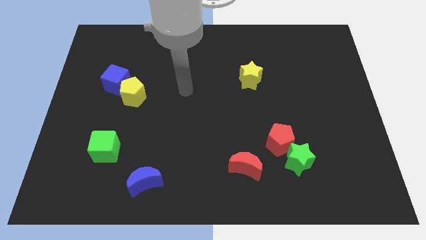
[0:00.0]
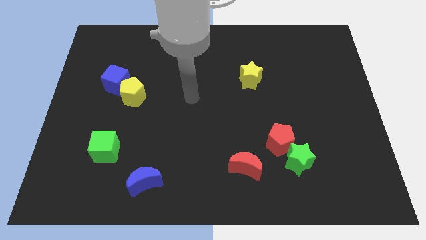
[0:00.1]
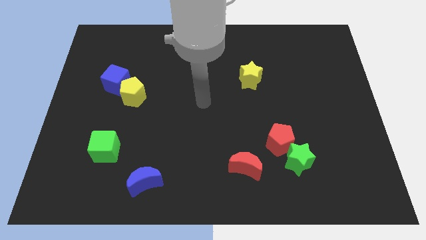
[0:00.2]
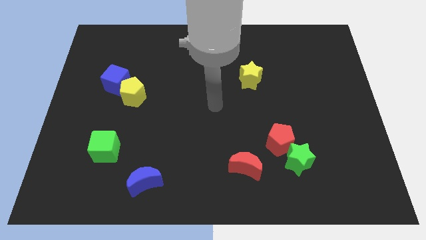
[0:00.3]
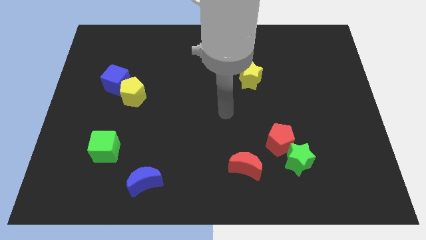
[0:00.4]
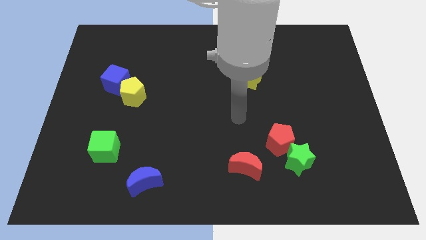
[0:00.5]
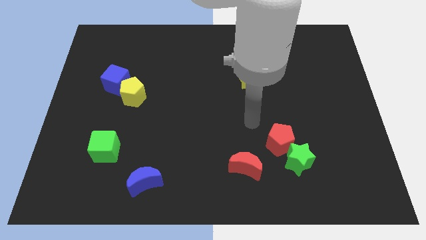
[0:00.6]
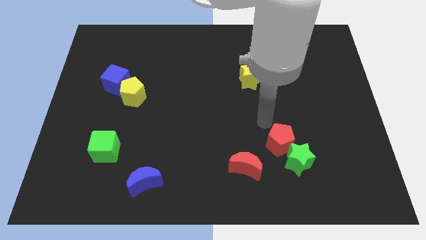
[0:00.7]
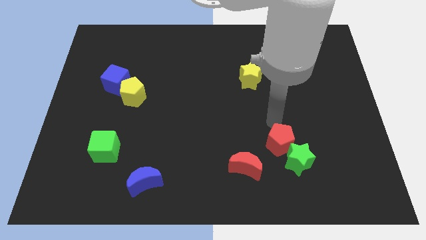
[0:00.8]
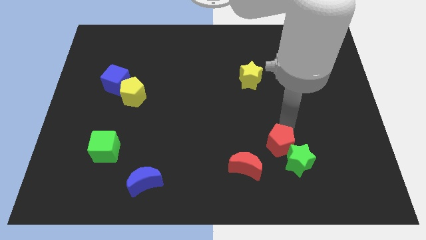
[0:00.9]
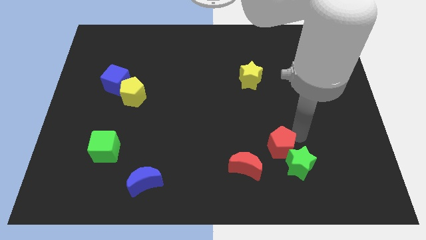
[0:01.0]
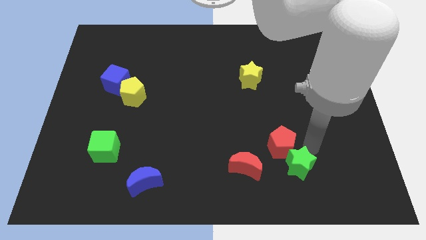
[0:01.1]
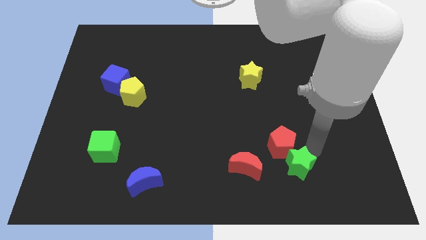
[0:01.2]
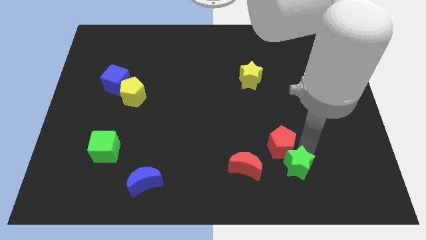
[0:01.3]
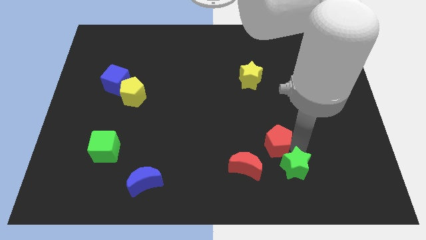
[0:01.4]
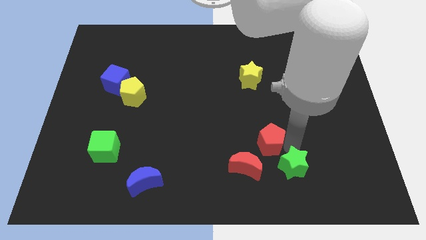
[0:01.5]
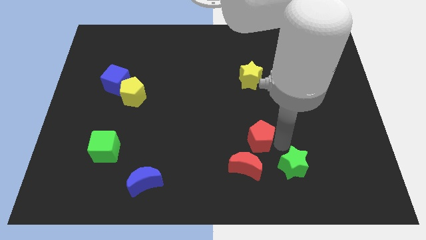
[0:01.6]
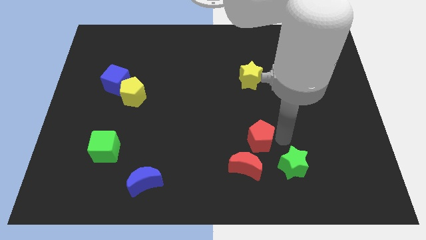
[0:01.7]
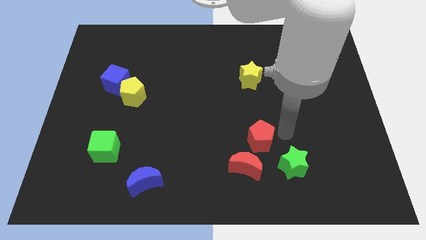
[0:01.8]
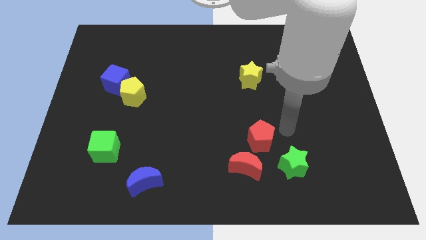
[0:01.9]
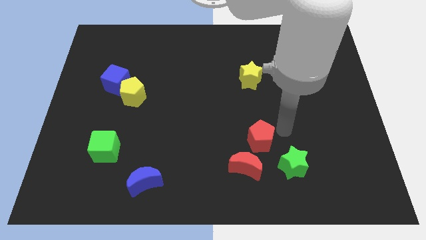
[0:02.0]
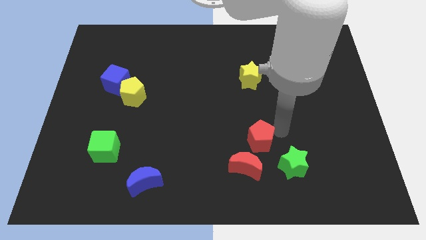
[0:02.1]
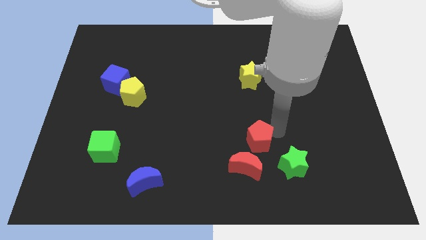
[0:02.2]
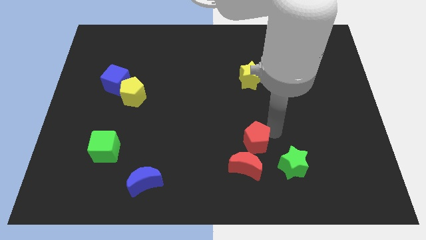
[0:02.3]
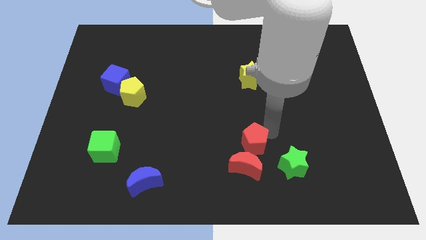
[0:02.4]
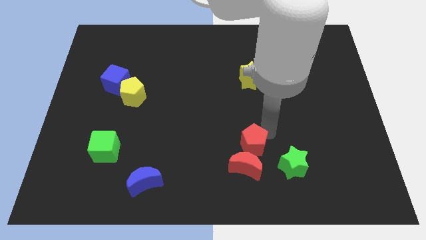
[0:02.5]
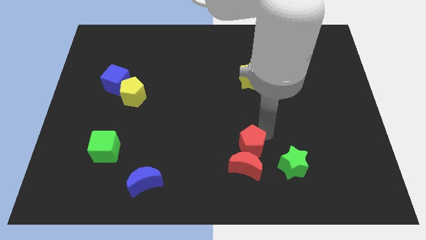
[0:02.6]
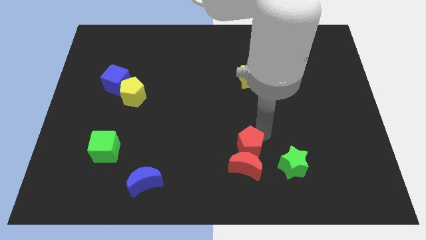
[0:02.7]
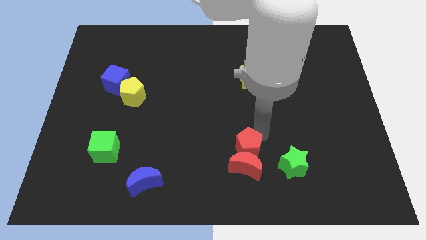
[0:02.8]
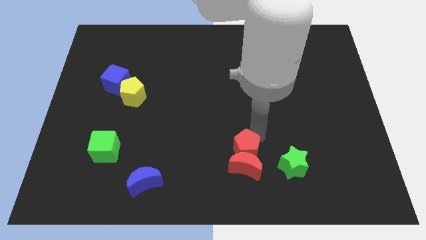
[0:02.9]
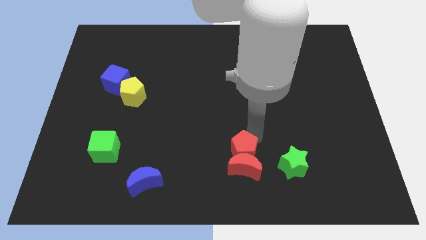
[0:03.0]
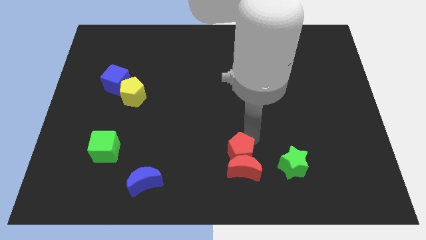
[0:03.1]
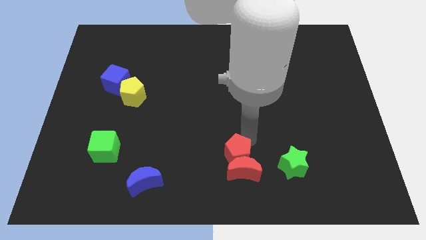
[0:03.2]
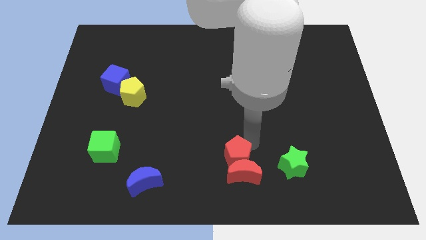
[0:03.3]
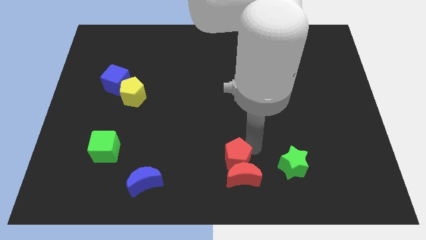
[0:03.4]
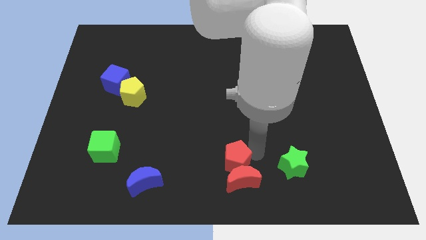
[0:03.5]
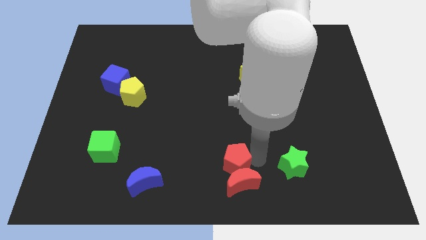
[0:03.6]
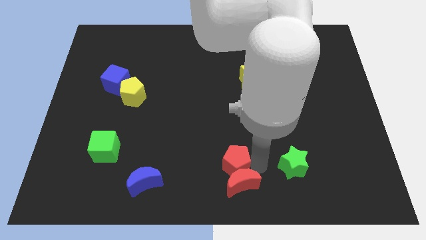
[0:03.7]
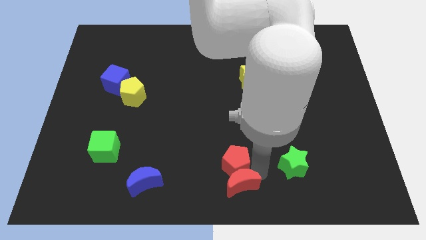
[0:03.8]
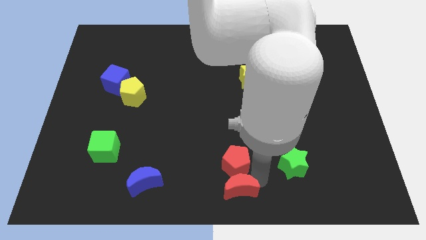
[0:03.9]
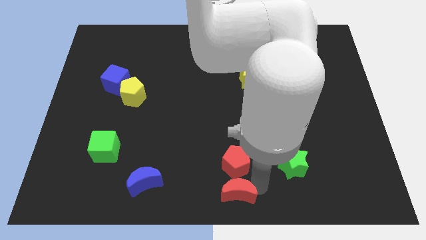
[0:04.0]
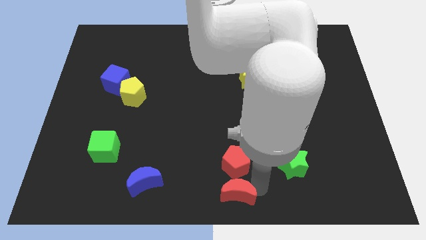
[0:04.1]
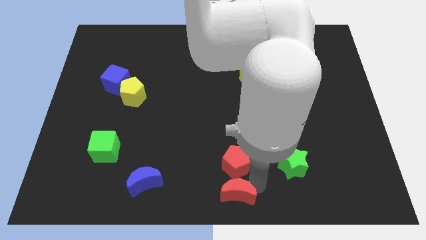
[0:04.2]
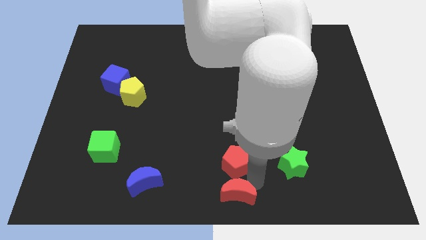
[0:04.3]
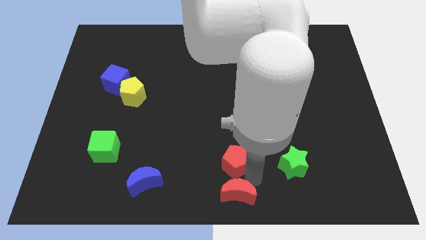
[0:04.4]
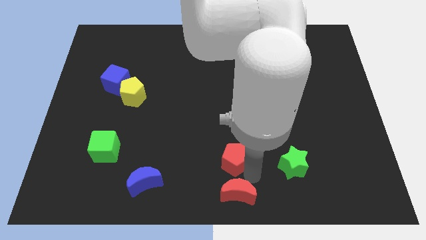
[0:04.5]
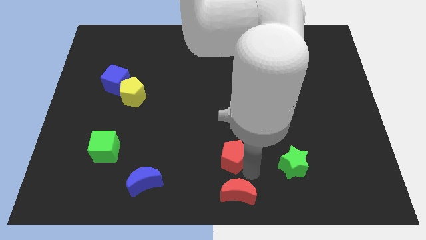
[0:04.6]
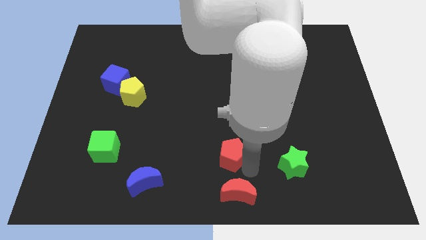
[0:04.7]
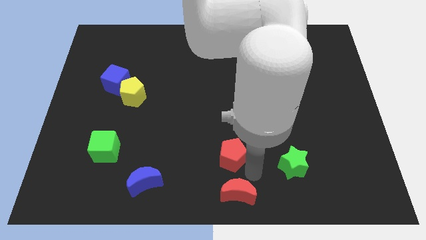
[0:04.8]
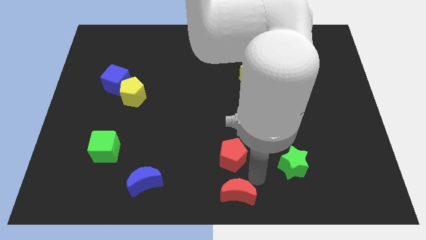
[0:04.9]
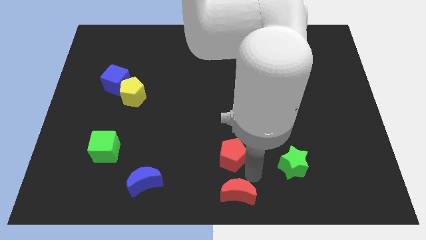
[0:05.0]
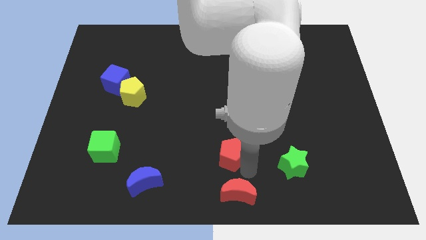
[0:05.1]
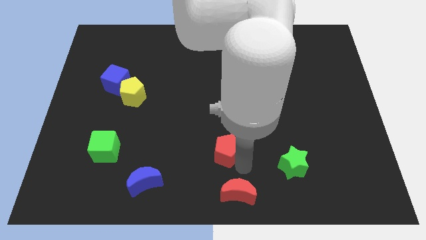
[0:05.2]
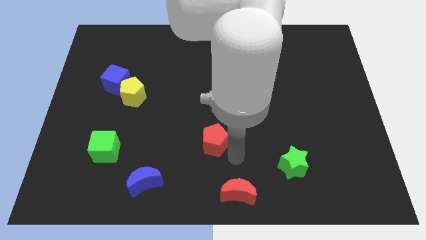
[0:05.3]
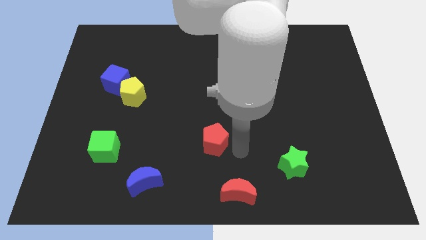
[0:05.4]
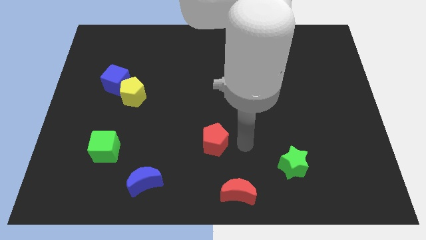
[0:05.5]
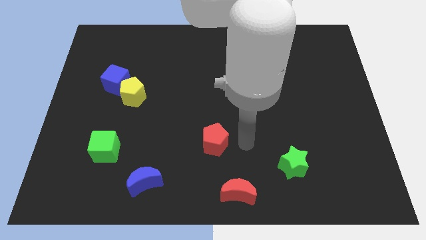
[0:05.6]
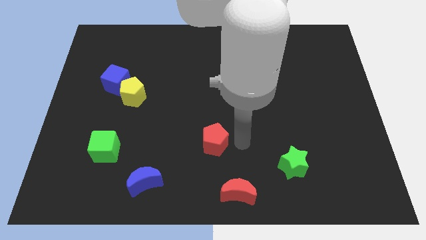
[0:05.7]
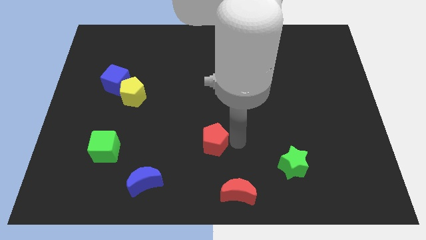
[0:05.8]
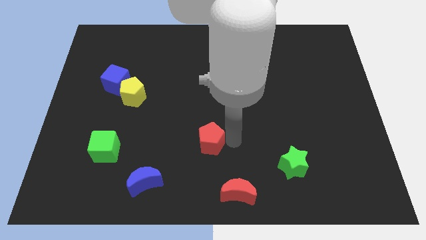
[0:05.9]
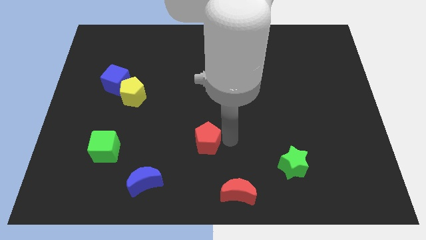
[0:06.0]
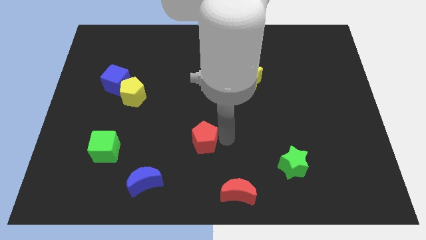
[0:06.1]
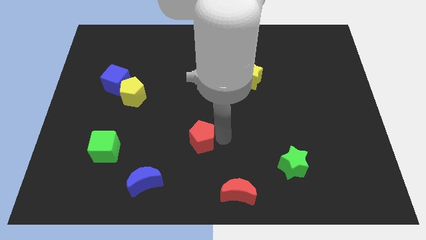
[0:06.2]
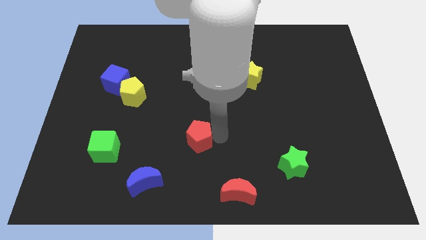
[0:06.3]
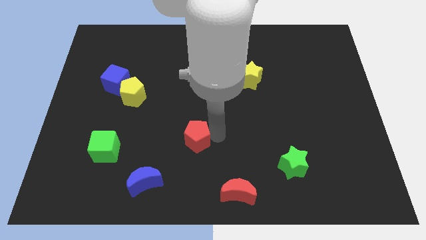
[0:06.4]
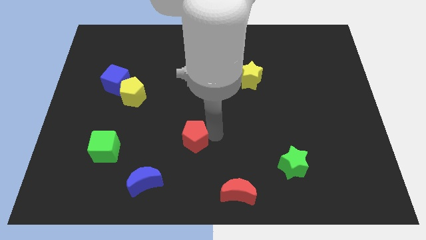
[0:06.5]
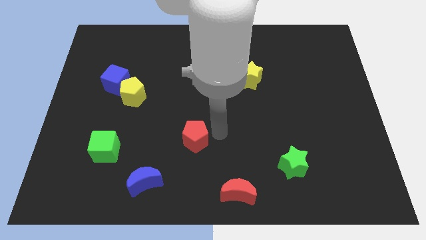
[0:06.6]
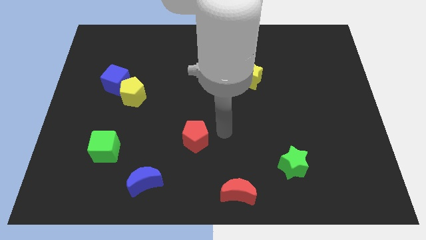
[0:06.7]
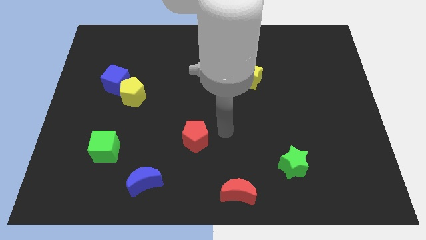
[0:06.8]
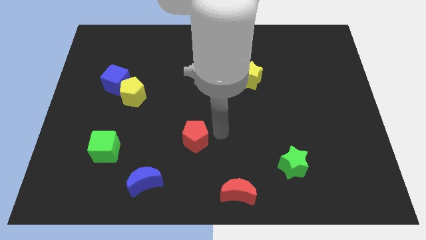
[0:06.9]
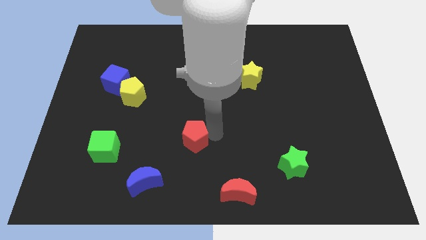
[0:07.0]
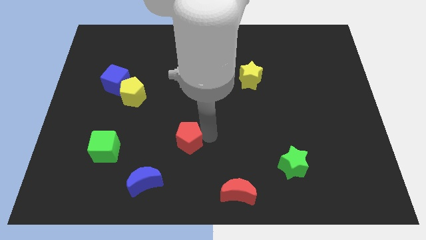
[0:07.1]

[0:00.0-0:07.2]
slide the red pentagon to the left

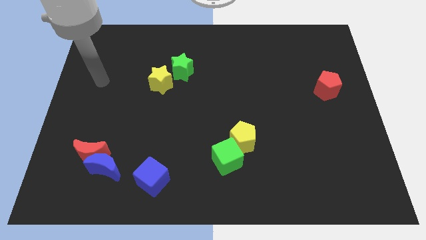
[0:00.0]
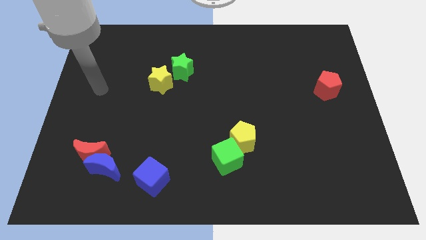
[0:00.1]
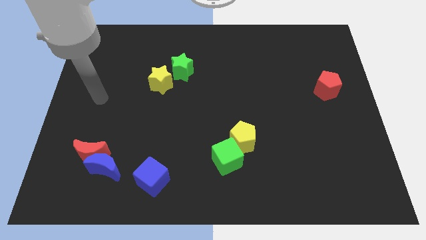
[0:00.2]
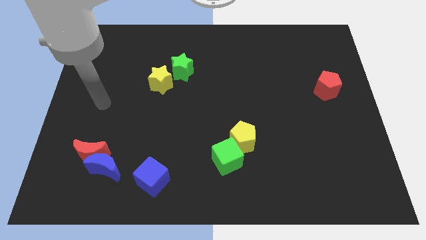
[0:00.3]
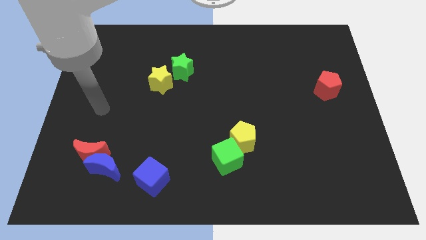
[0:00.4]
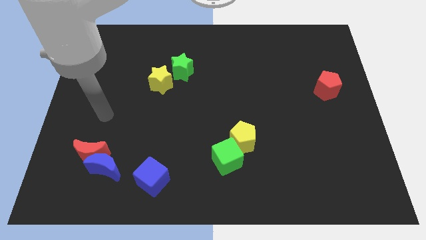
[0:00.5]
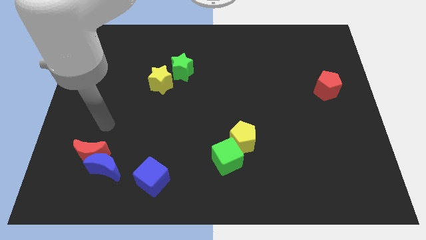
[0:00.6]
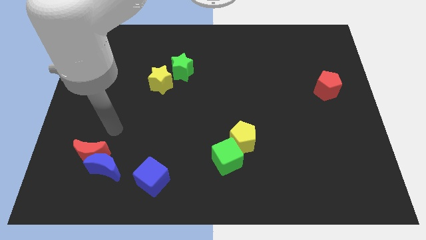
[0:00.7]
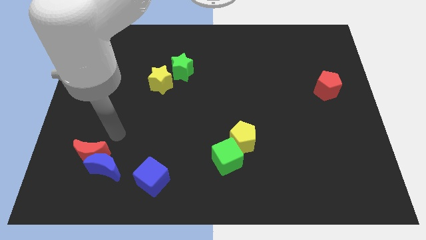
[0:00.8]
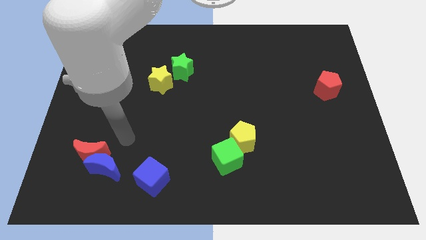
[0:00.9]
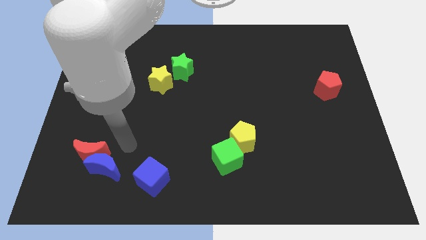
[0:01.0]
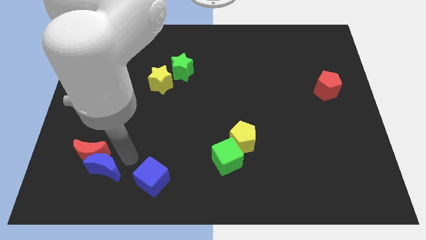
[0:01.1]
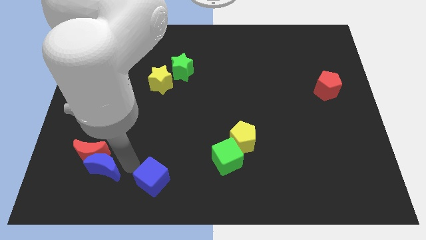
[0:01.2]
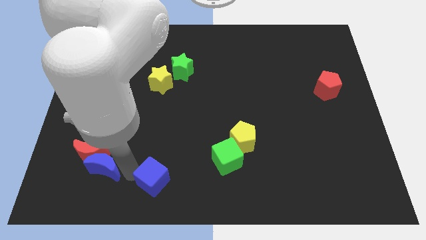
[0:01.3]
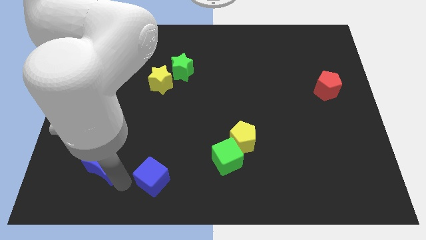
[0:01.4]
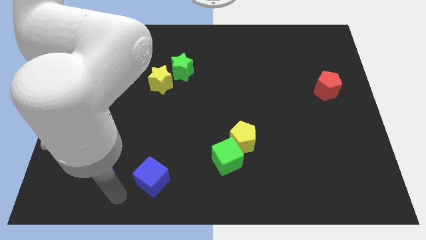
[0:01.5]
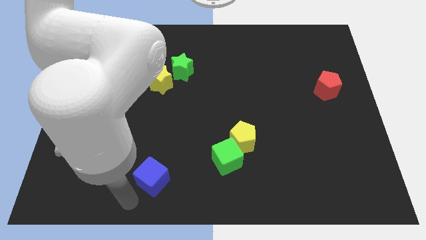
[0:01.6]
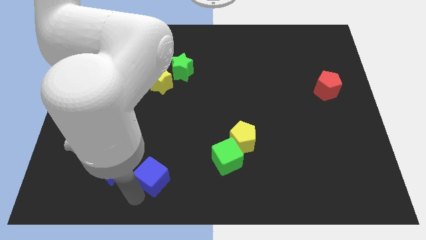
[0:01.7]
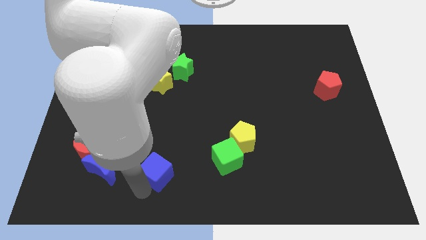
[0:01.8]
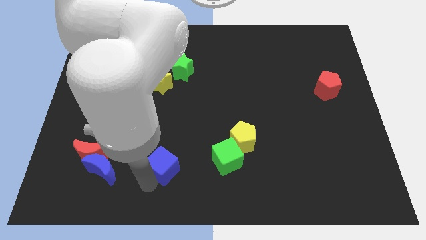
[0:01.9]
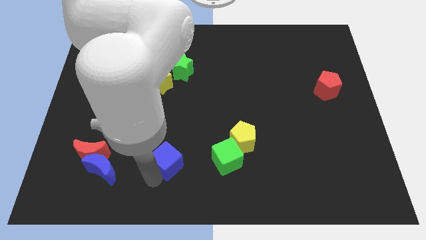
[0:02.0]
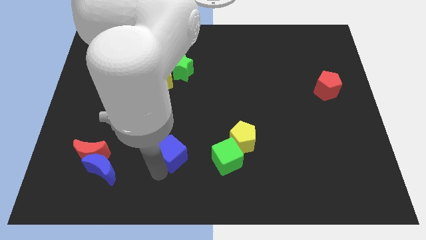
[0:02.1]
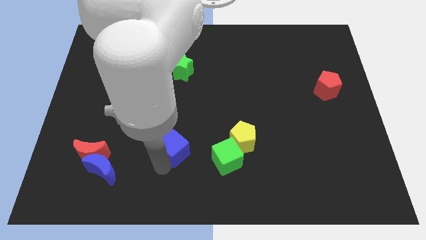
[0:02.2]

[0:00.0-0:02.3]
slide the blue cube a bit up and then to the right
